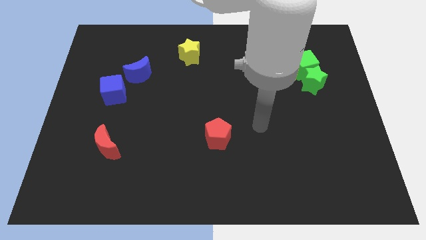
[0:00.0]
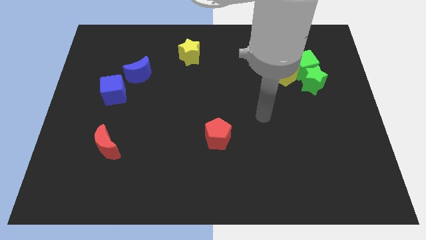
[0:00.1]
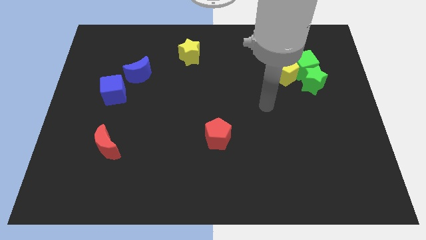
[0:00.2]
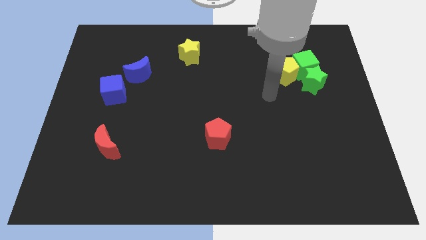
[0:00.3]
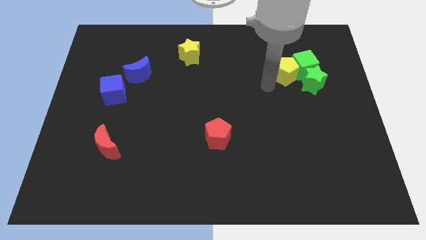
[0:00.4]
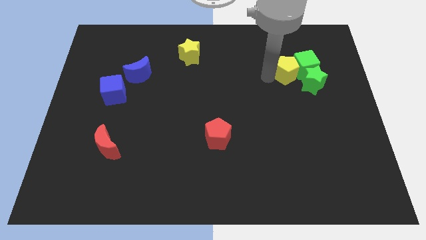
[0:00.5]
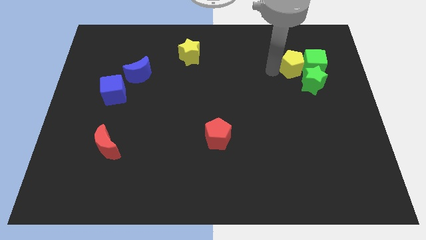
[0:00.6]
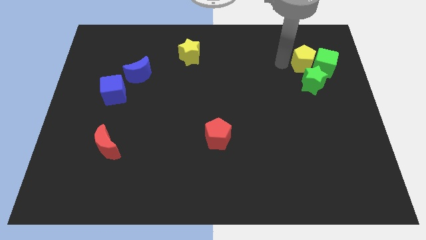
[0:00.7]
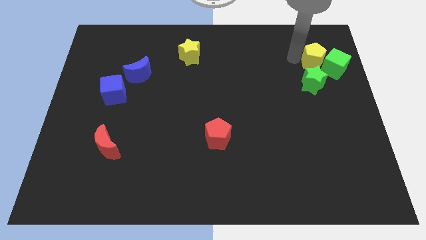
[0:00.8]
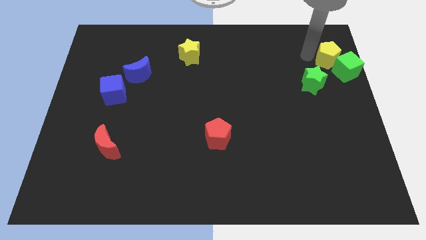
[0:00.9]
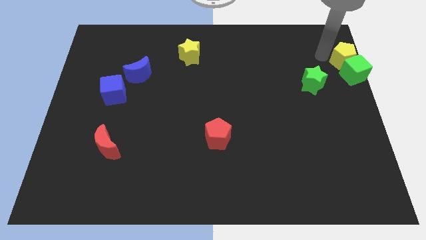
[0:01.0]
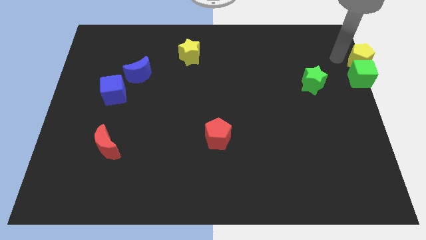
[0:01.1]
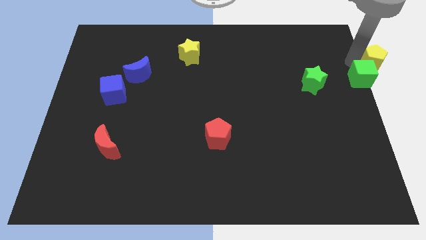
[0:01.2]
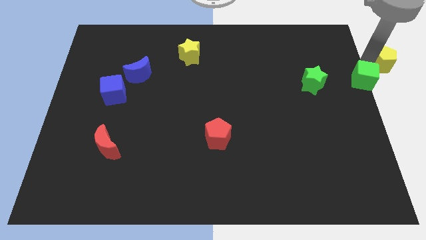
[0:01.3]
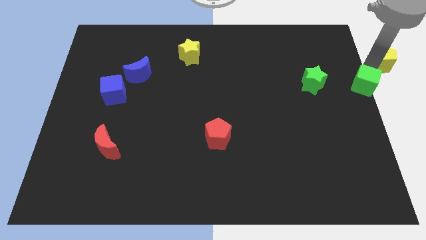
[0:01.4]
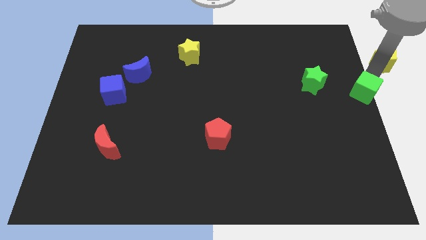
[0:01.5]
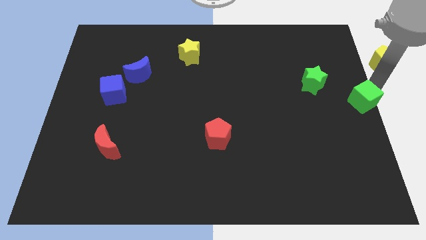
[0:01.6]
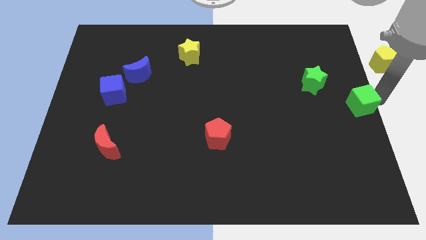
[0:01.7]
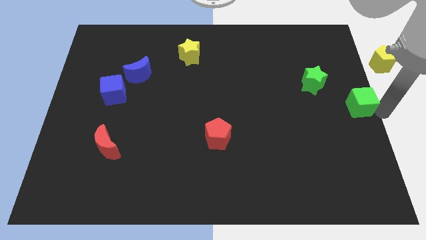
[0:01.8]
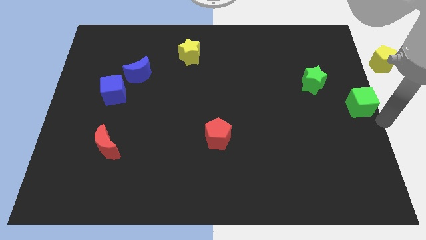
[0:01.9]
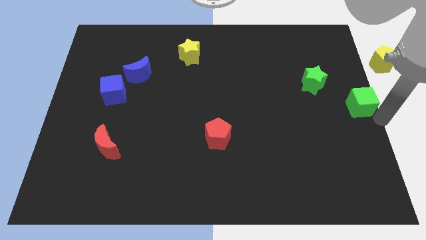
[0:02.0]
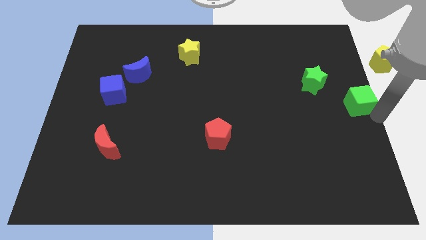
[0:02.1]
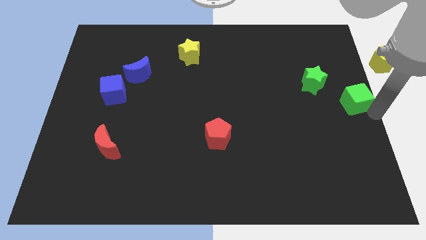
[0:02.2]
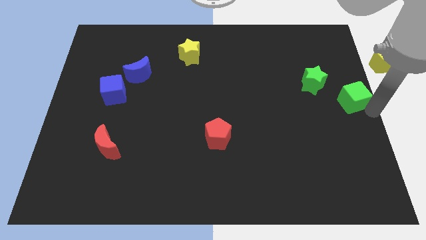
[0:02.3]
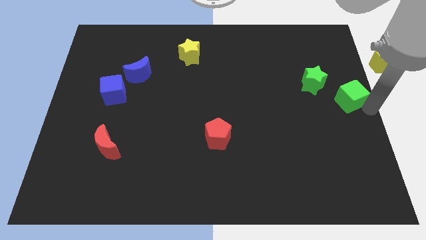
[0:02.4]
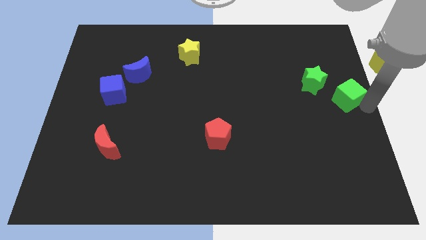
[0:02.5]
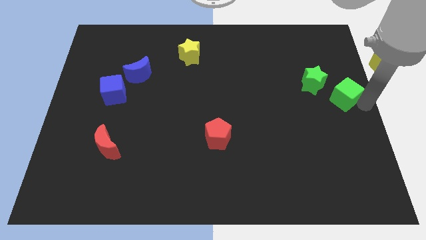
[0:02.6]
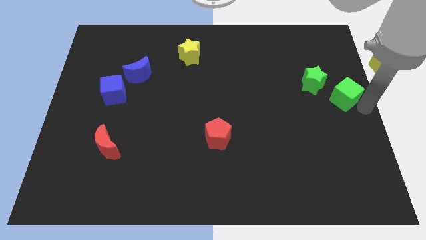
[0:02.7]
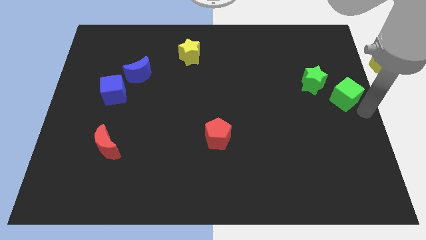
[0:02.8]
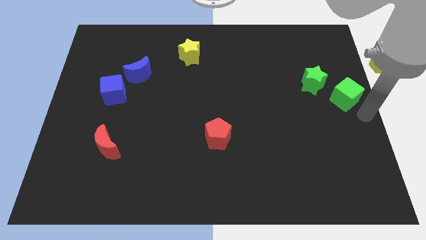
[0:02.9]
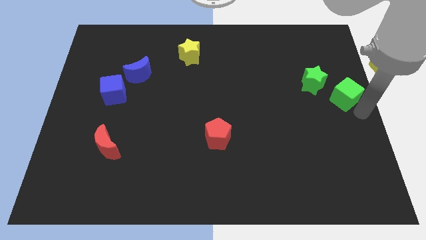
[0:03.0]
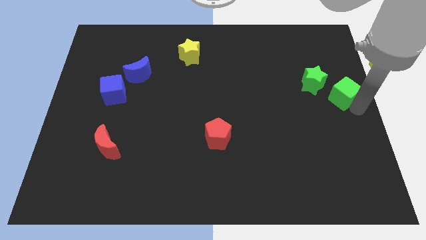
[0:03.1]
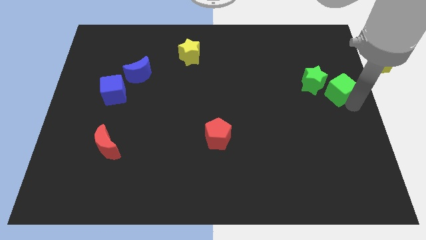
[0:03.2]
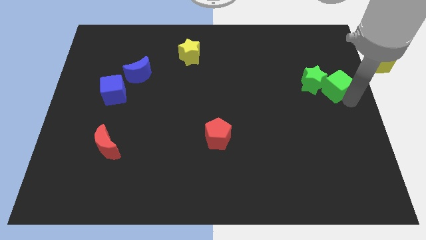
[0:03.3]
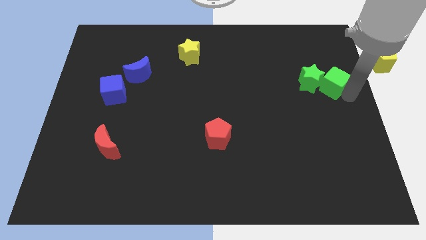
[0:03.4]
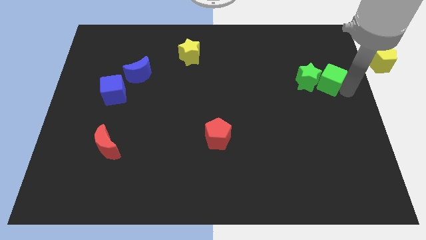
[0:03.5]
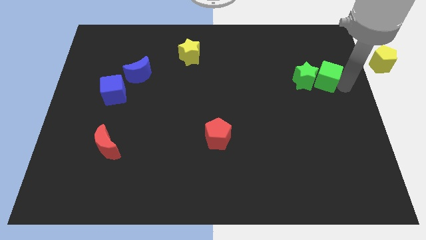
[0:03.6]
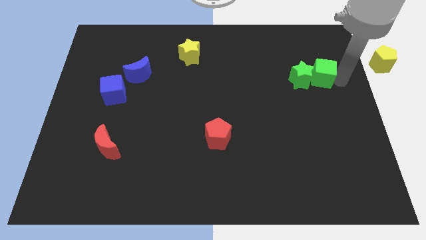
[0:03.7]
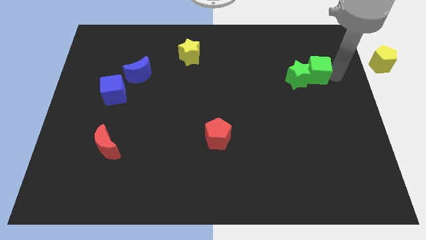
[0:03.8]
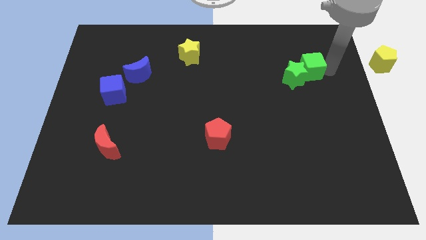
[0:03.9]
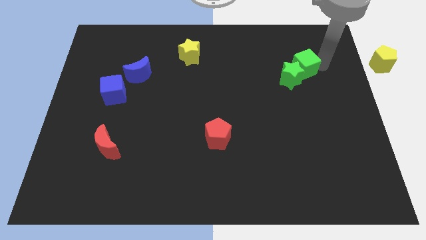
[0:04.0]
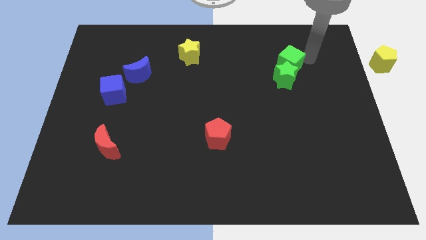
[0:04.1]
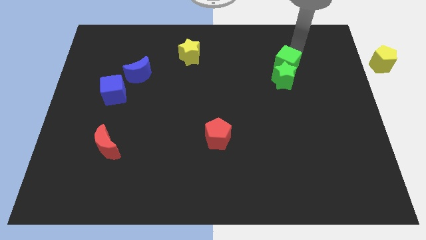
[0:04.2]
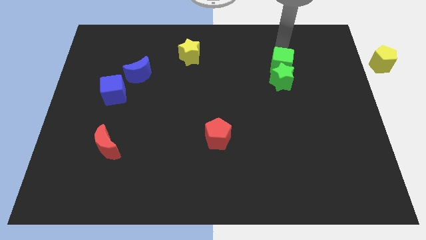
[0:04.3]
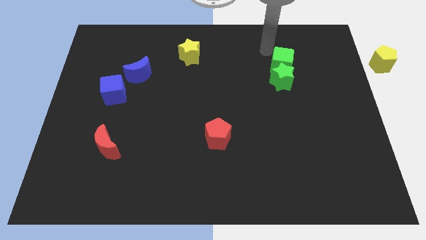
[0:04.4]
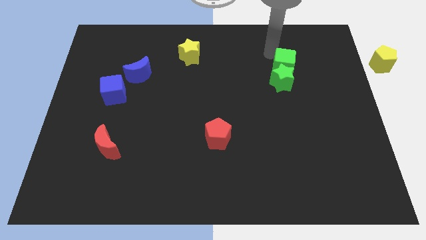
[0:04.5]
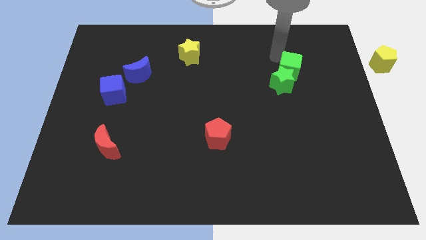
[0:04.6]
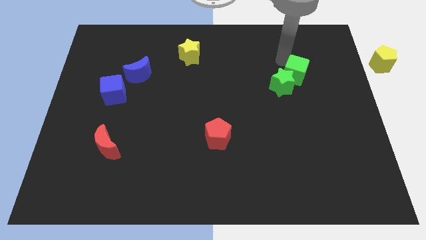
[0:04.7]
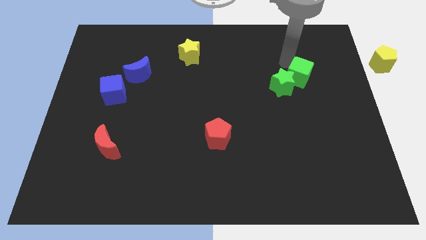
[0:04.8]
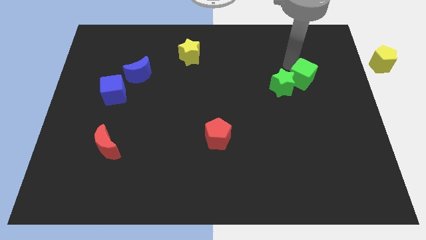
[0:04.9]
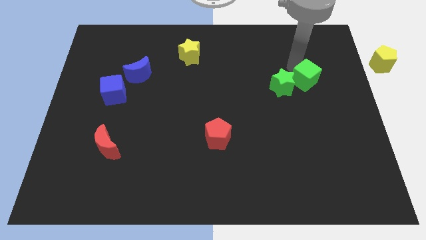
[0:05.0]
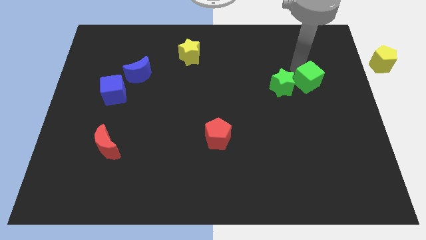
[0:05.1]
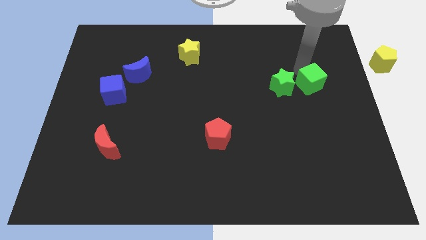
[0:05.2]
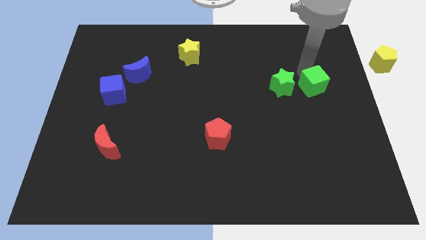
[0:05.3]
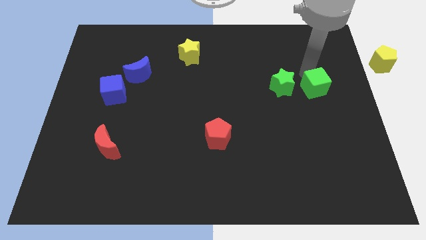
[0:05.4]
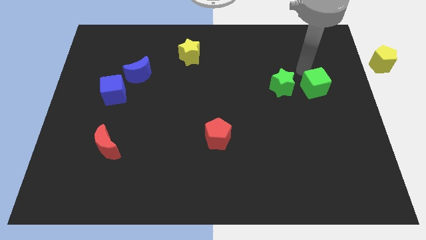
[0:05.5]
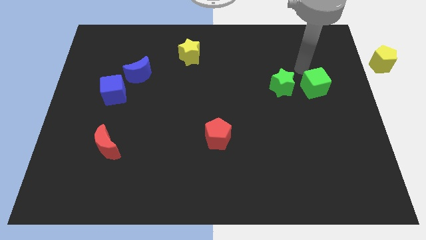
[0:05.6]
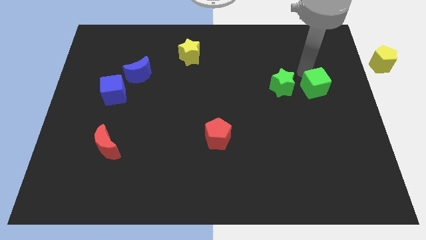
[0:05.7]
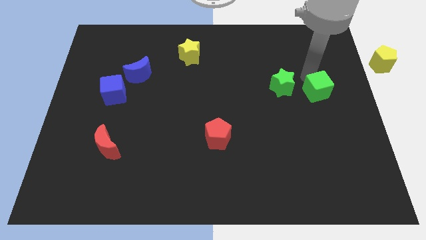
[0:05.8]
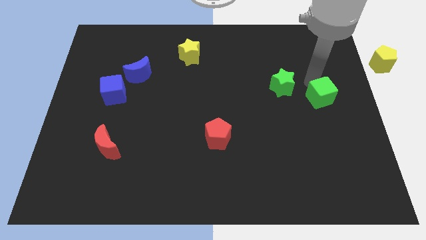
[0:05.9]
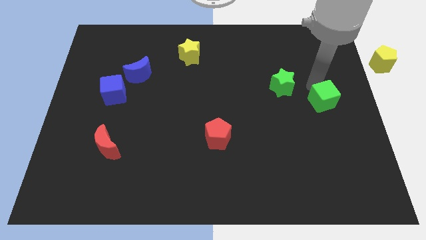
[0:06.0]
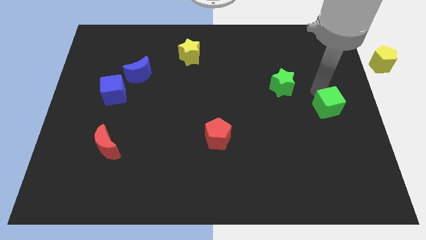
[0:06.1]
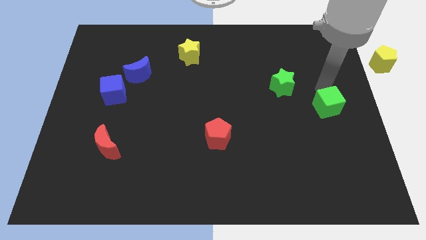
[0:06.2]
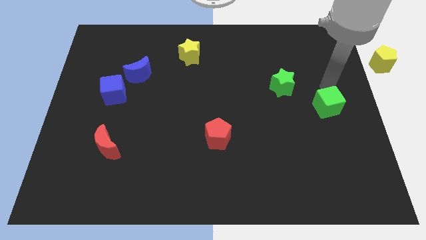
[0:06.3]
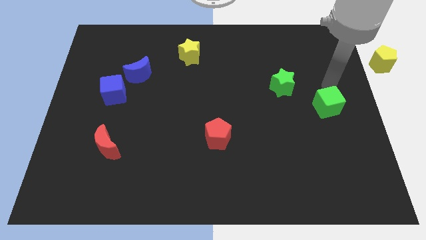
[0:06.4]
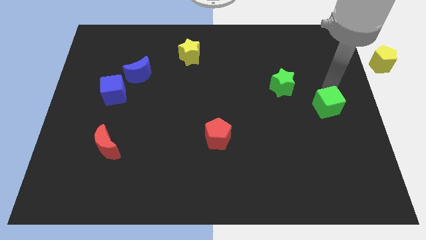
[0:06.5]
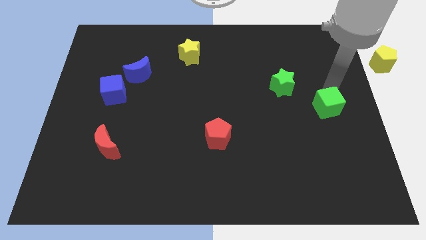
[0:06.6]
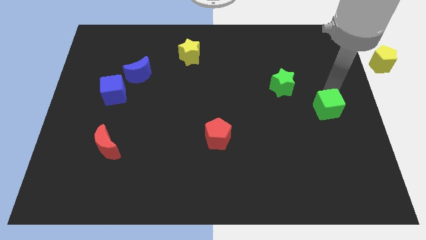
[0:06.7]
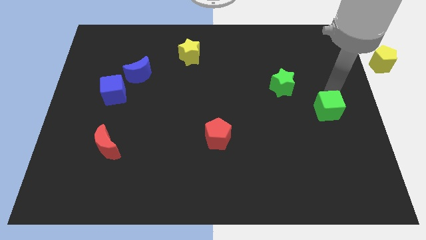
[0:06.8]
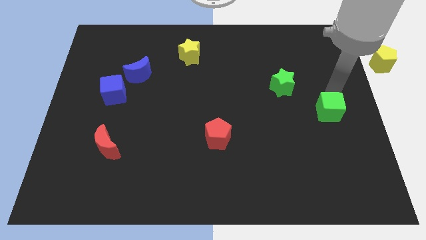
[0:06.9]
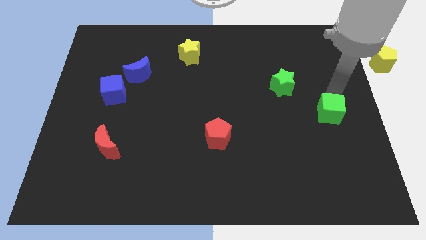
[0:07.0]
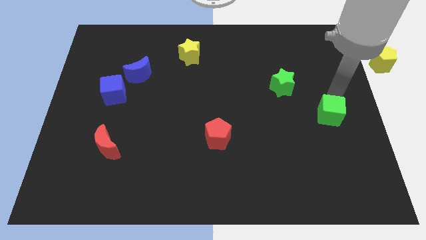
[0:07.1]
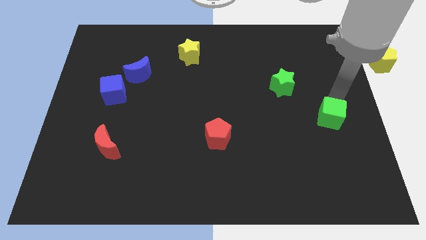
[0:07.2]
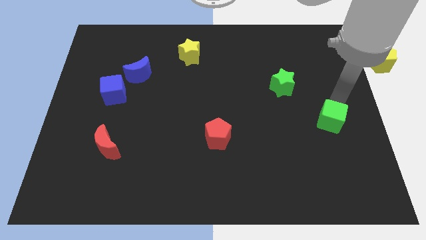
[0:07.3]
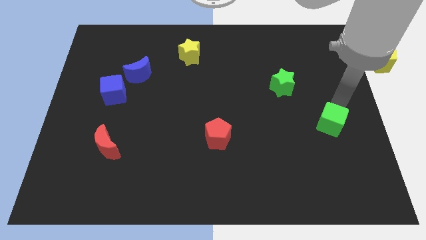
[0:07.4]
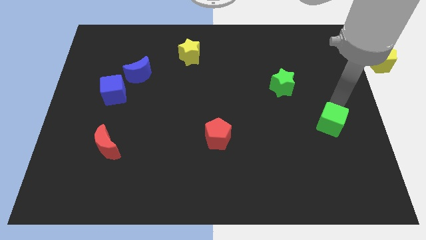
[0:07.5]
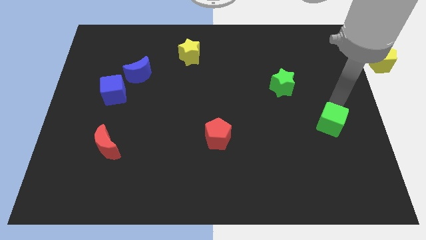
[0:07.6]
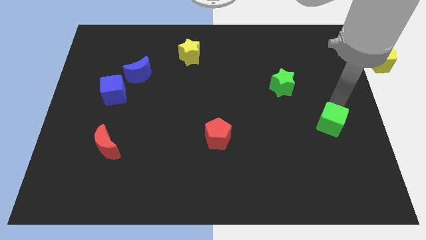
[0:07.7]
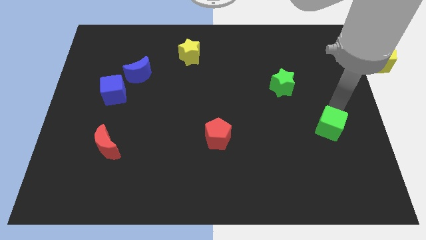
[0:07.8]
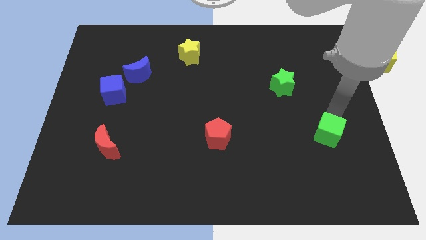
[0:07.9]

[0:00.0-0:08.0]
push the green cube downwards
